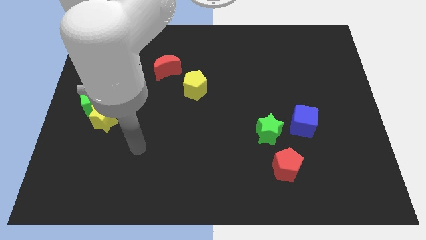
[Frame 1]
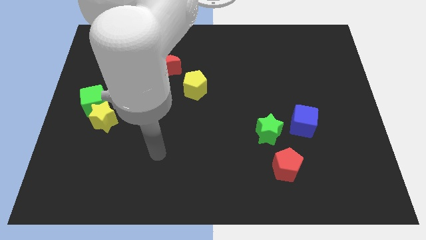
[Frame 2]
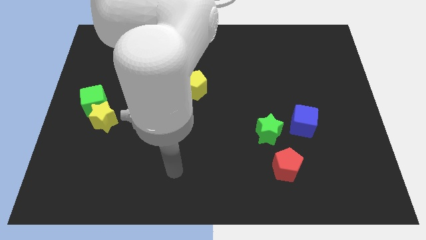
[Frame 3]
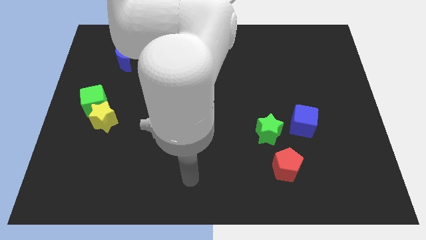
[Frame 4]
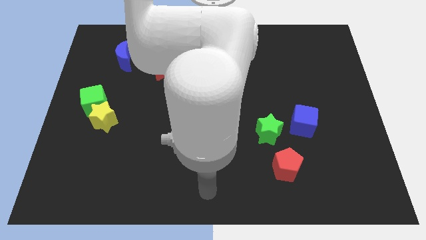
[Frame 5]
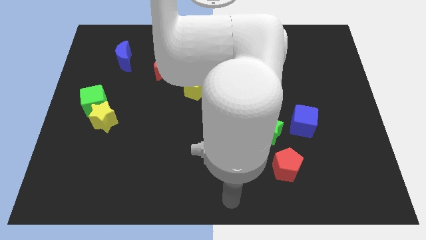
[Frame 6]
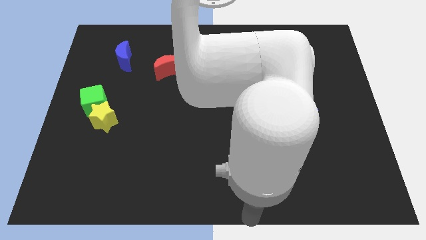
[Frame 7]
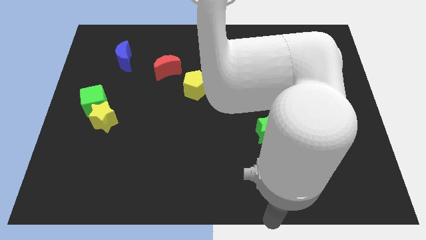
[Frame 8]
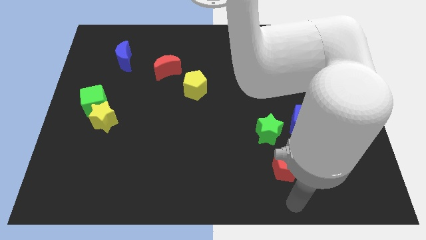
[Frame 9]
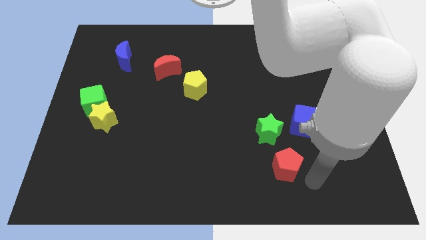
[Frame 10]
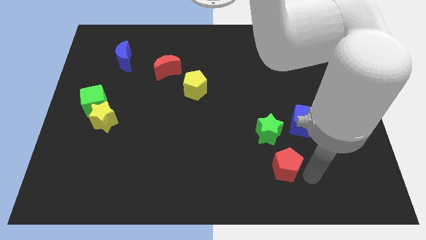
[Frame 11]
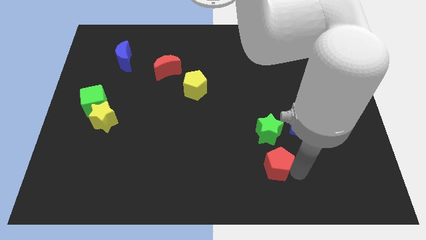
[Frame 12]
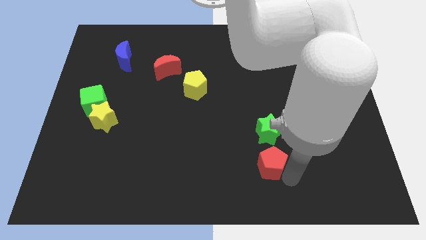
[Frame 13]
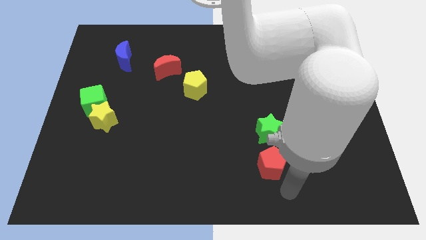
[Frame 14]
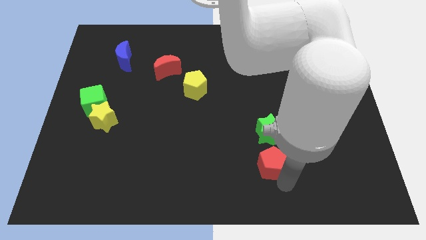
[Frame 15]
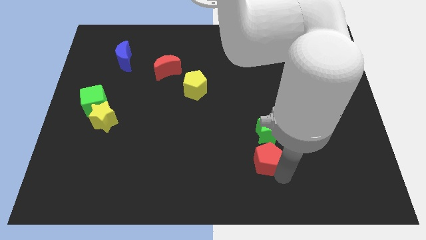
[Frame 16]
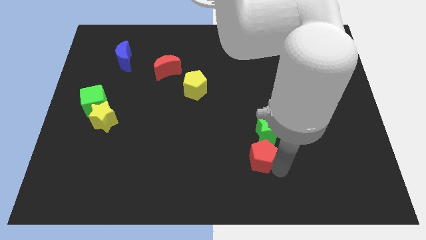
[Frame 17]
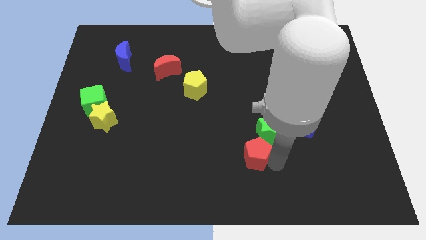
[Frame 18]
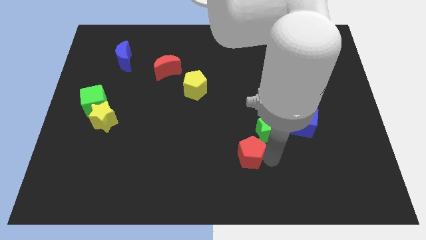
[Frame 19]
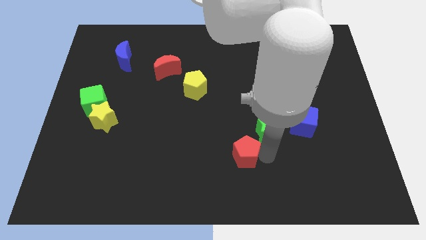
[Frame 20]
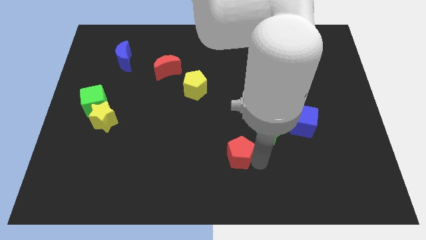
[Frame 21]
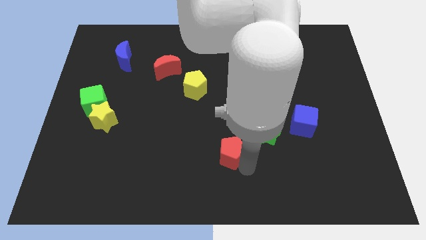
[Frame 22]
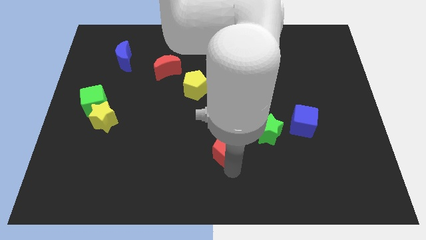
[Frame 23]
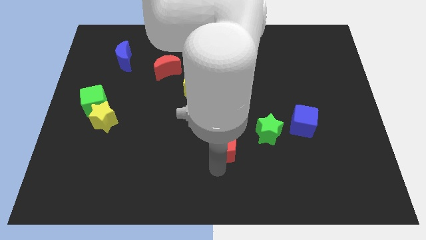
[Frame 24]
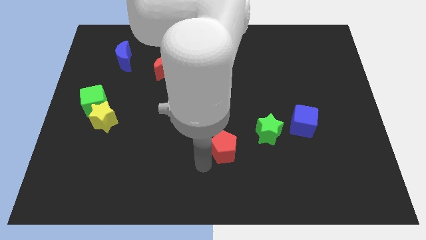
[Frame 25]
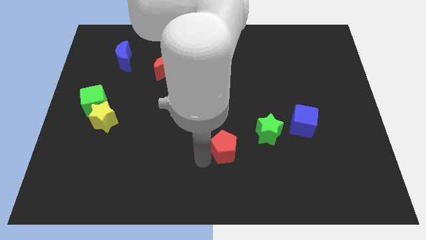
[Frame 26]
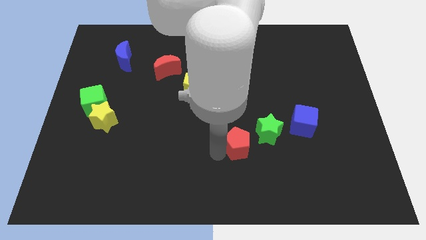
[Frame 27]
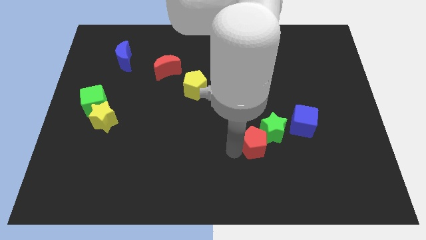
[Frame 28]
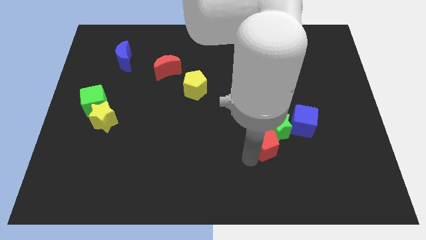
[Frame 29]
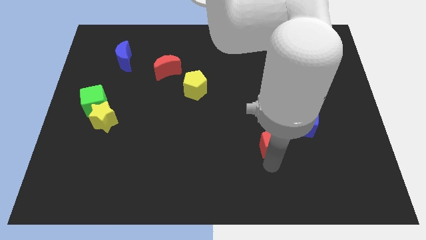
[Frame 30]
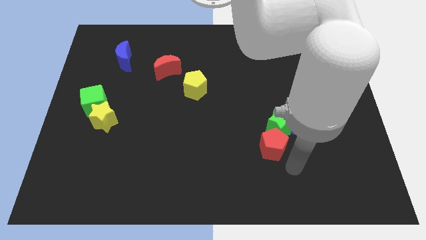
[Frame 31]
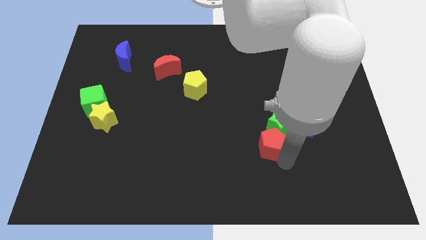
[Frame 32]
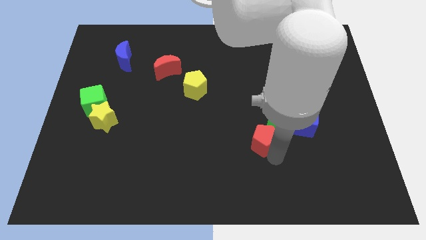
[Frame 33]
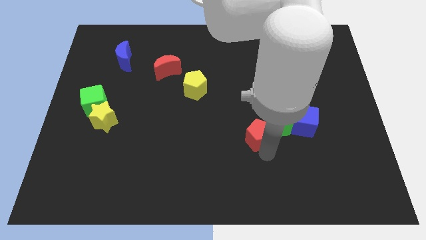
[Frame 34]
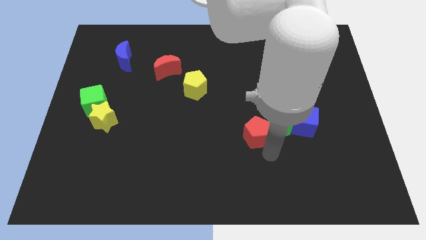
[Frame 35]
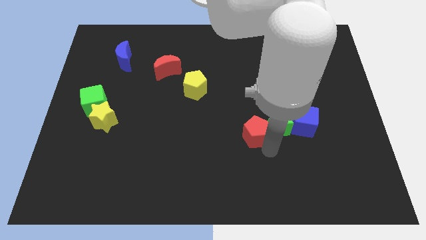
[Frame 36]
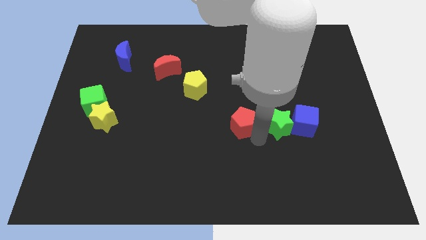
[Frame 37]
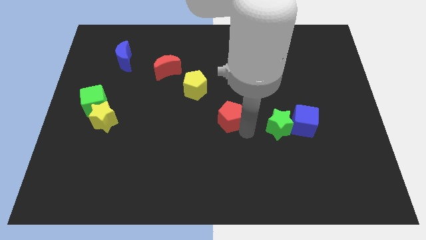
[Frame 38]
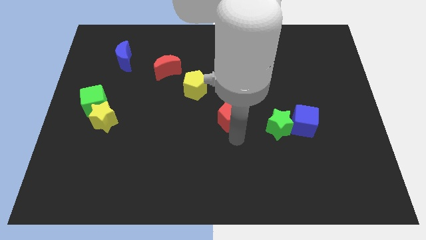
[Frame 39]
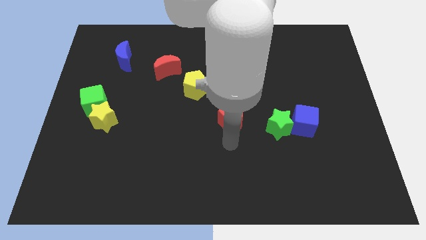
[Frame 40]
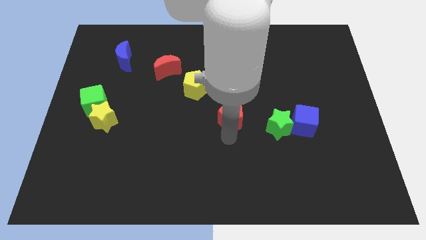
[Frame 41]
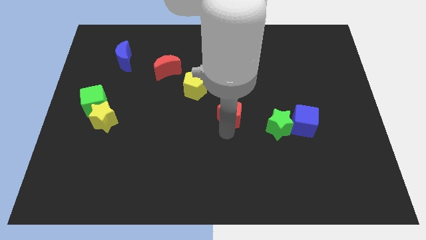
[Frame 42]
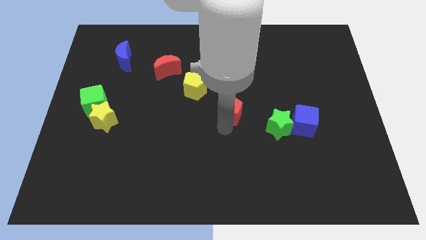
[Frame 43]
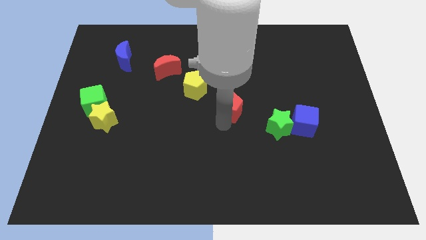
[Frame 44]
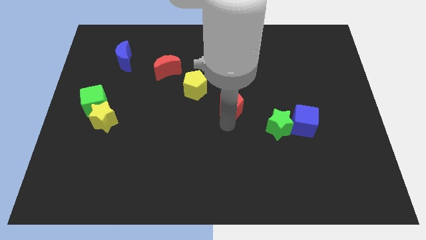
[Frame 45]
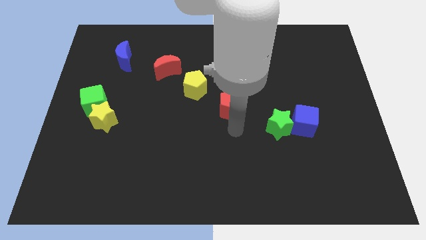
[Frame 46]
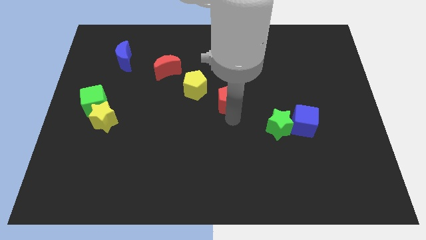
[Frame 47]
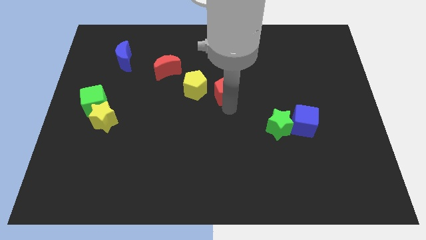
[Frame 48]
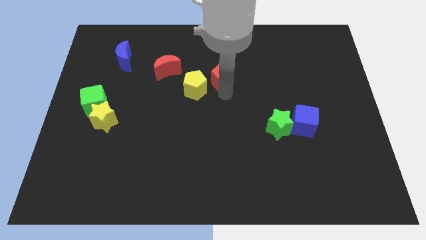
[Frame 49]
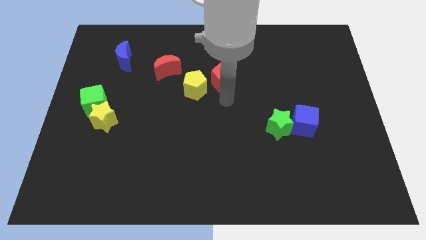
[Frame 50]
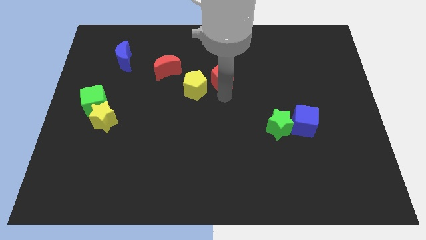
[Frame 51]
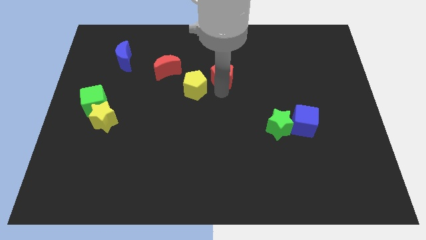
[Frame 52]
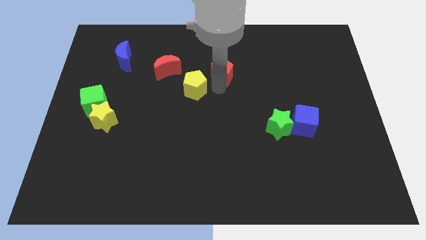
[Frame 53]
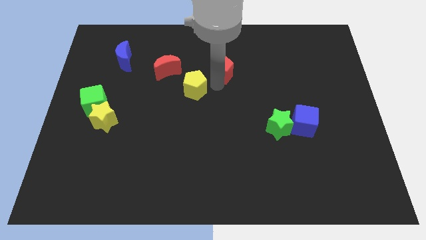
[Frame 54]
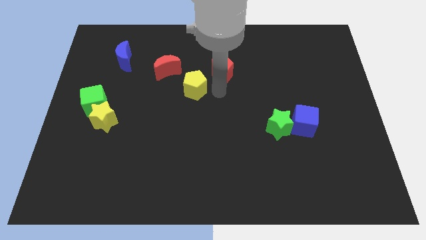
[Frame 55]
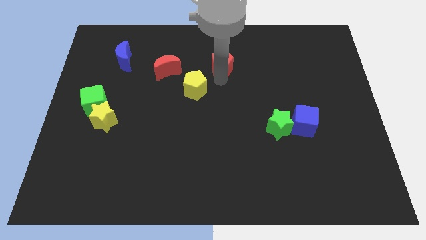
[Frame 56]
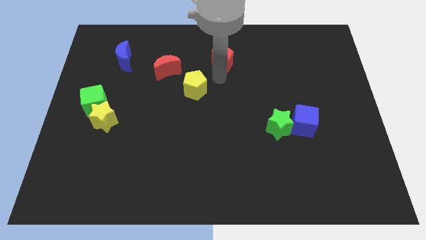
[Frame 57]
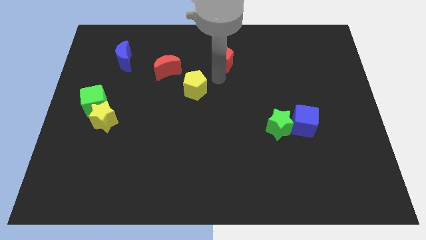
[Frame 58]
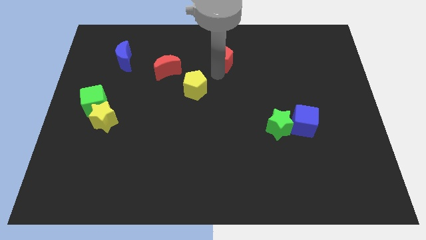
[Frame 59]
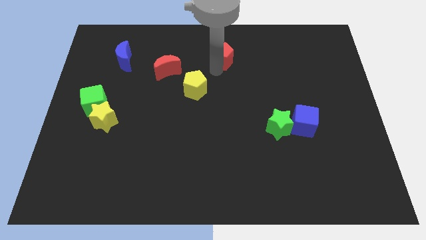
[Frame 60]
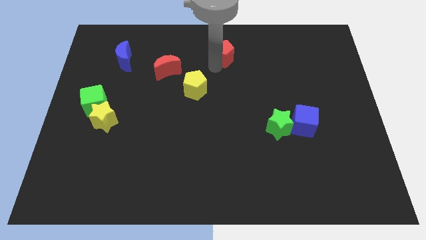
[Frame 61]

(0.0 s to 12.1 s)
put the red pentagon to the towards your base
